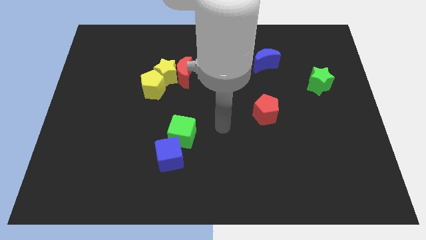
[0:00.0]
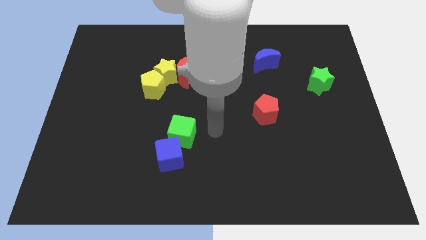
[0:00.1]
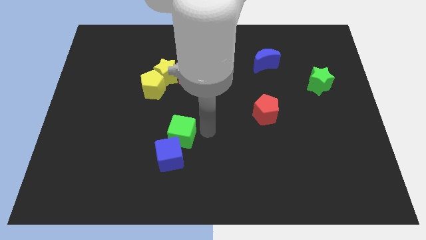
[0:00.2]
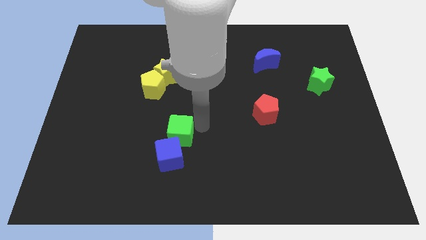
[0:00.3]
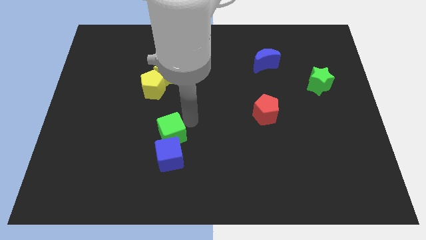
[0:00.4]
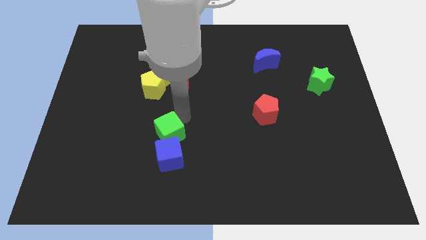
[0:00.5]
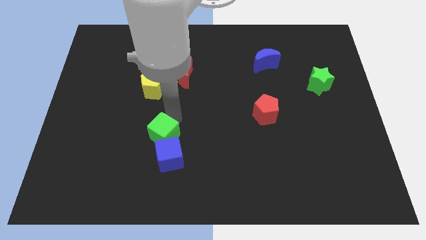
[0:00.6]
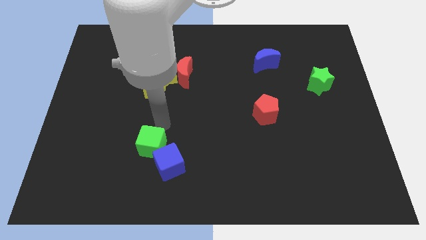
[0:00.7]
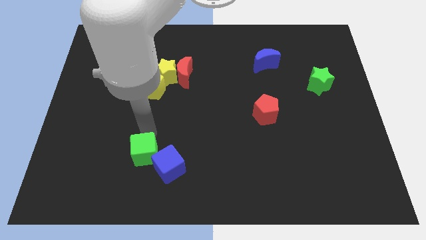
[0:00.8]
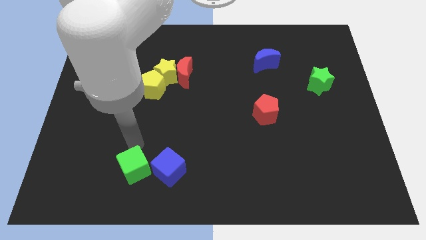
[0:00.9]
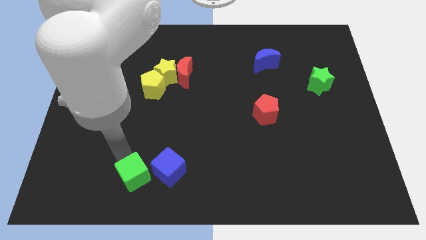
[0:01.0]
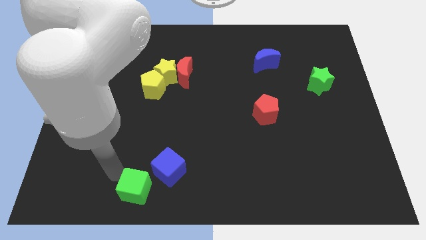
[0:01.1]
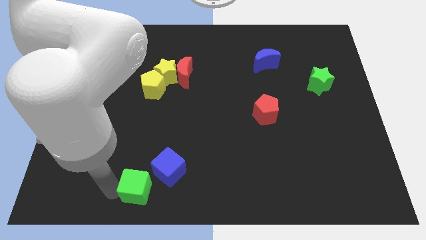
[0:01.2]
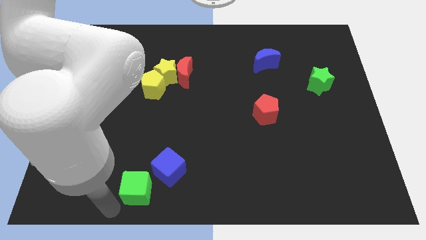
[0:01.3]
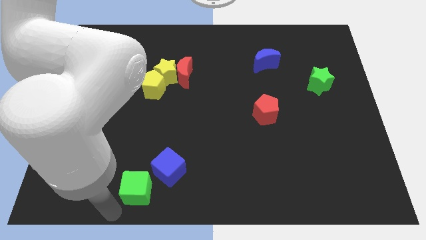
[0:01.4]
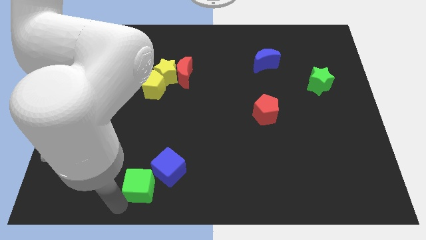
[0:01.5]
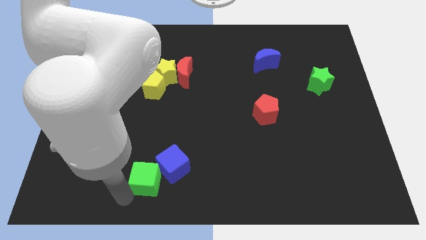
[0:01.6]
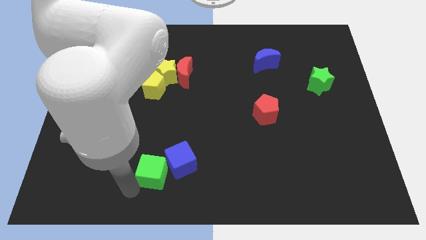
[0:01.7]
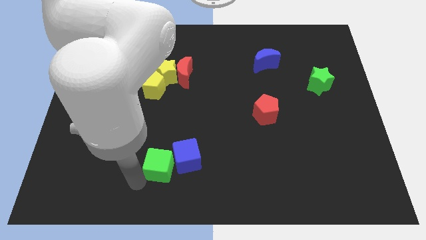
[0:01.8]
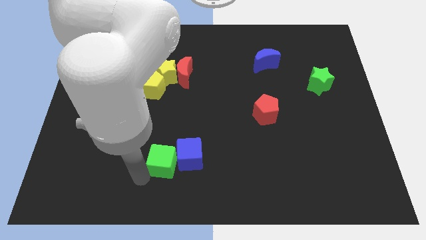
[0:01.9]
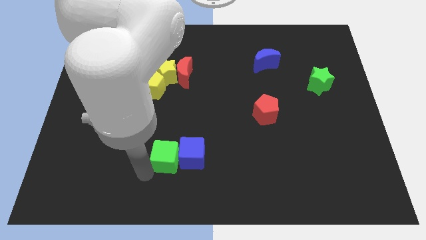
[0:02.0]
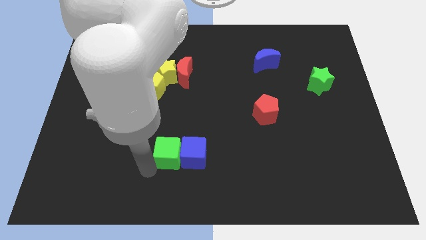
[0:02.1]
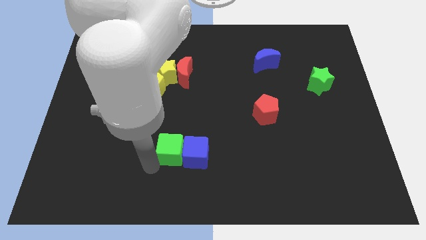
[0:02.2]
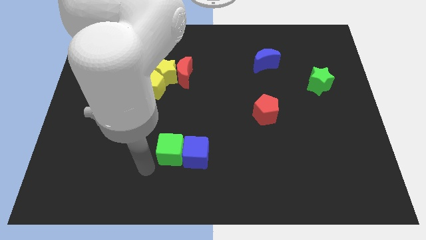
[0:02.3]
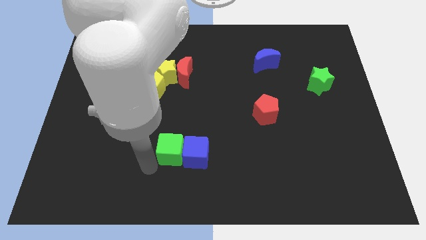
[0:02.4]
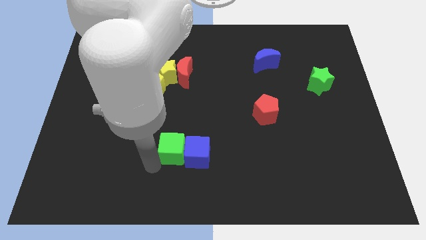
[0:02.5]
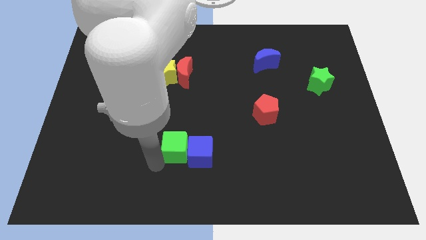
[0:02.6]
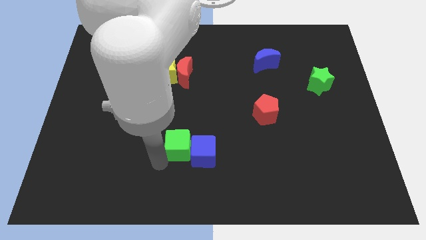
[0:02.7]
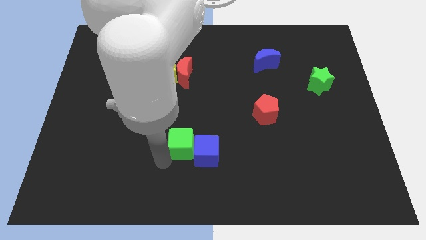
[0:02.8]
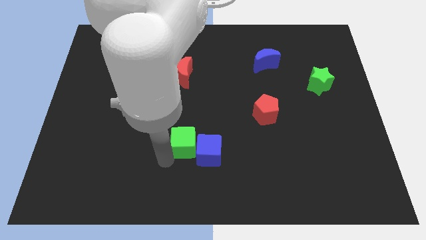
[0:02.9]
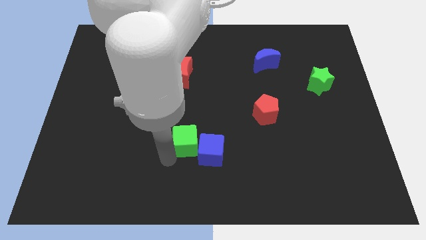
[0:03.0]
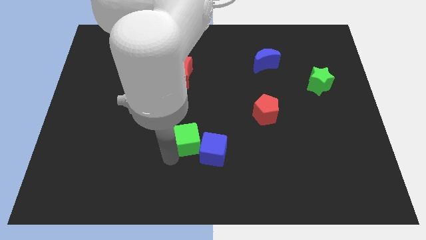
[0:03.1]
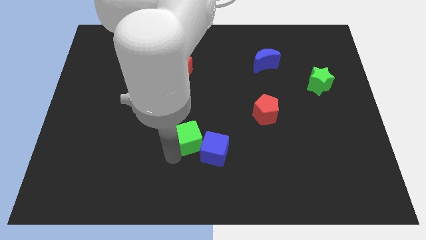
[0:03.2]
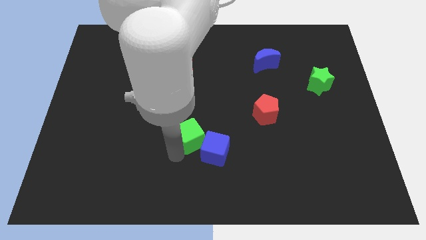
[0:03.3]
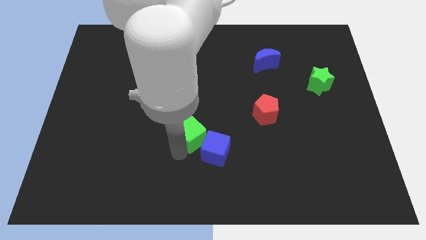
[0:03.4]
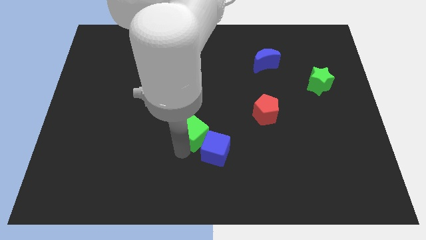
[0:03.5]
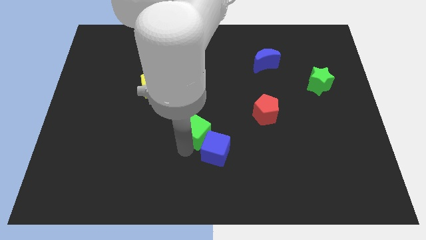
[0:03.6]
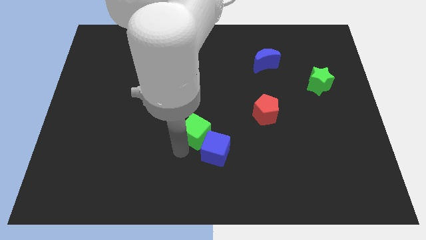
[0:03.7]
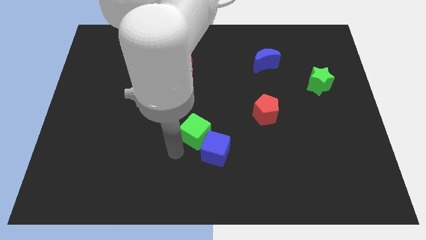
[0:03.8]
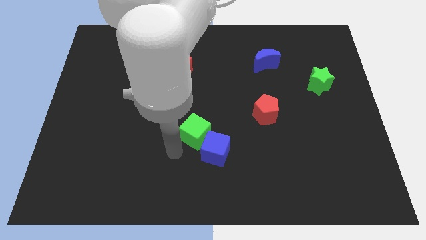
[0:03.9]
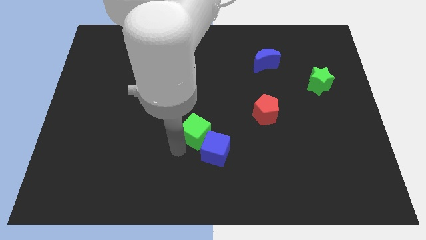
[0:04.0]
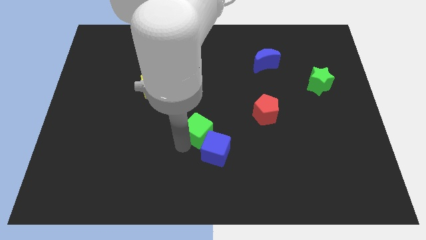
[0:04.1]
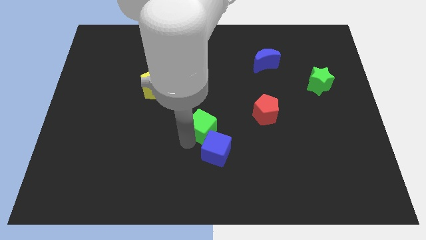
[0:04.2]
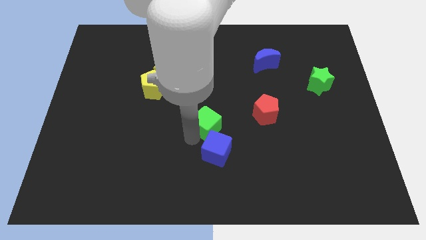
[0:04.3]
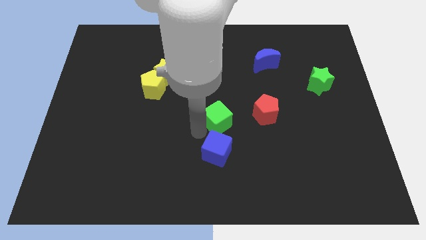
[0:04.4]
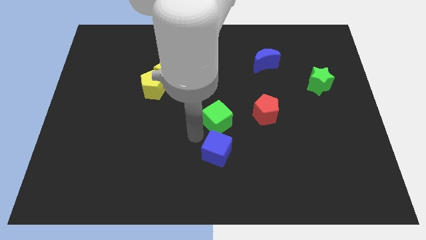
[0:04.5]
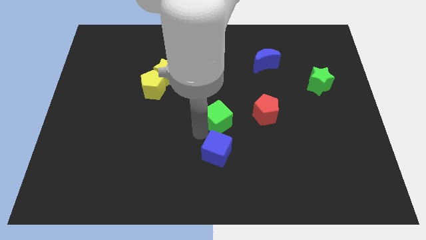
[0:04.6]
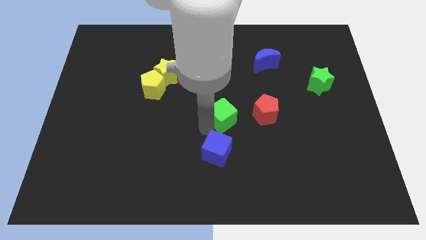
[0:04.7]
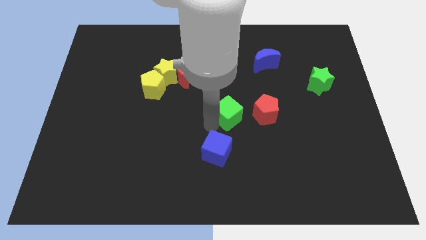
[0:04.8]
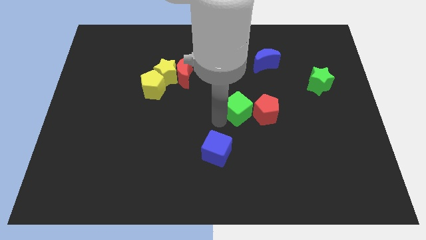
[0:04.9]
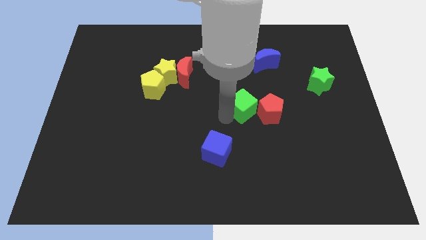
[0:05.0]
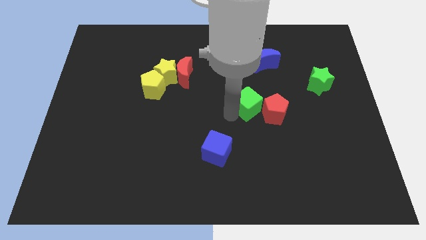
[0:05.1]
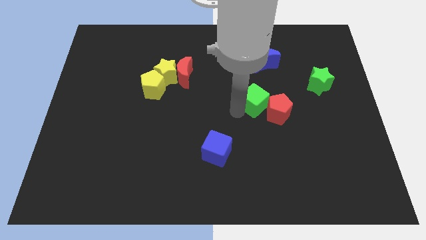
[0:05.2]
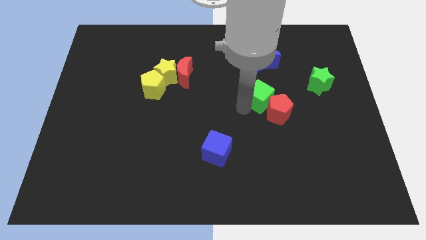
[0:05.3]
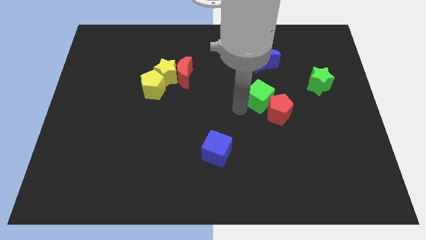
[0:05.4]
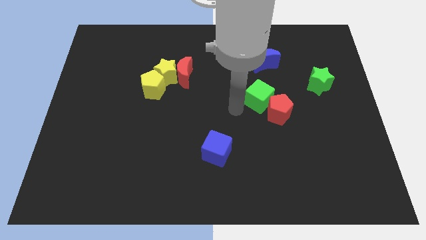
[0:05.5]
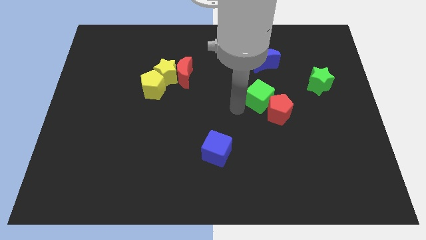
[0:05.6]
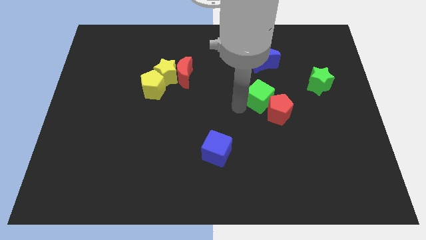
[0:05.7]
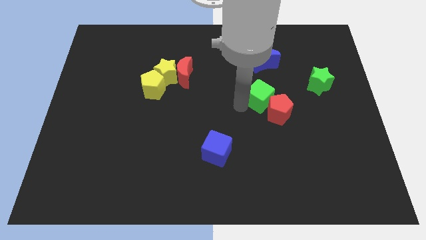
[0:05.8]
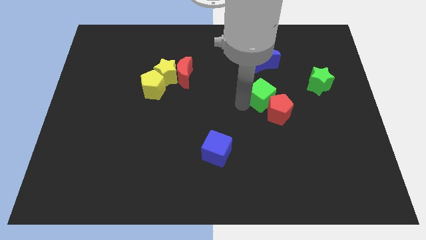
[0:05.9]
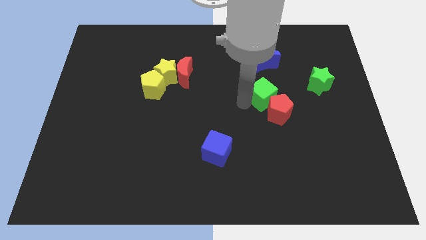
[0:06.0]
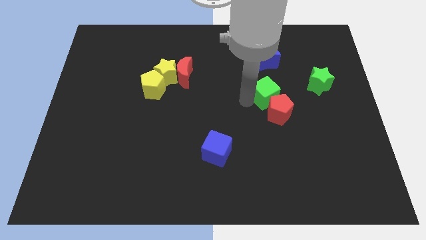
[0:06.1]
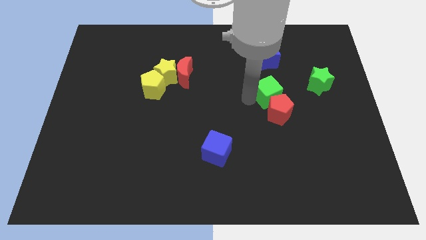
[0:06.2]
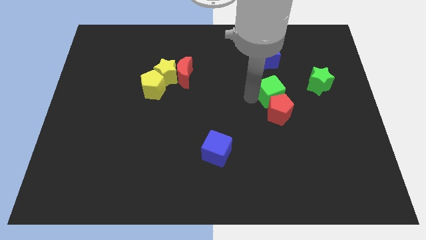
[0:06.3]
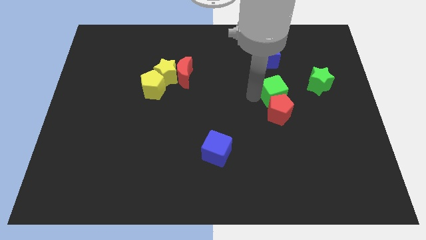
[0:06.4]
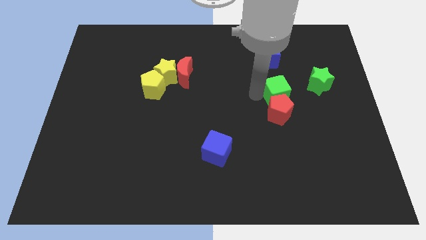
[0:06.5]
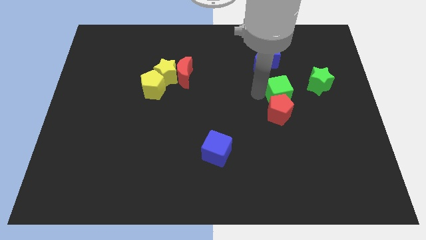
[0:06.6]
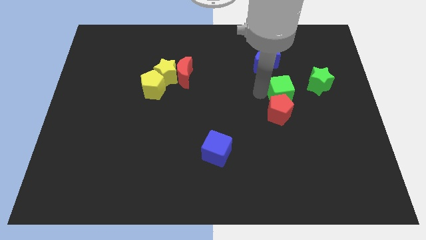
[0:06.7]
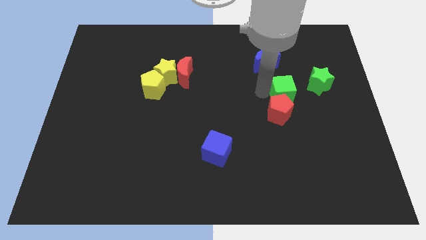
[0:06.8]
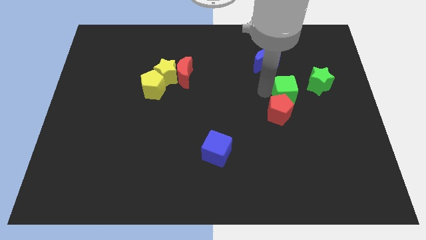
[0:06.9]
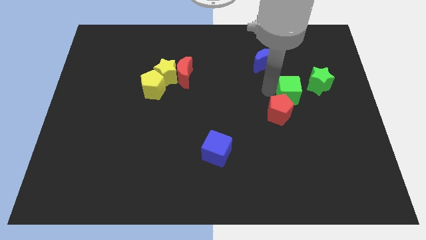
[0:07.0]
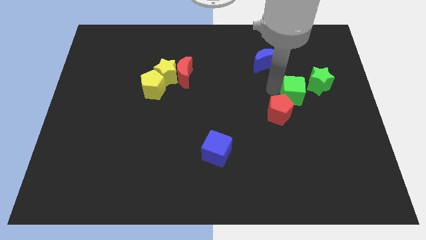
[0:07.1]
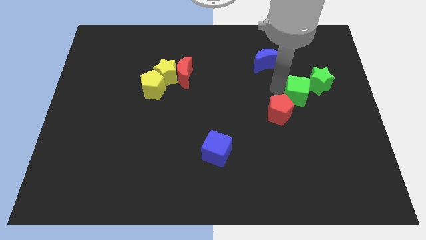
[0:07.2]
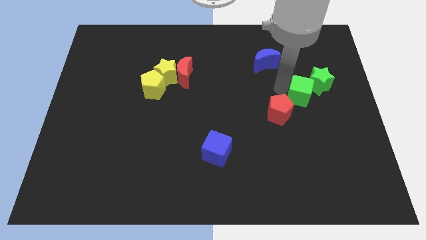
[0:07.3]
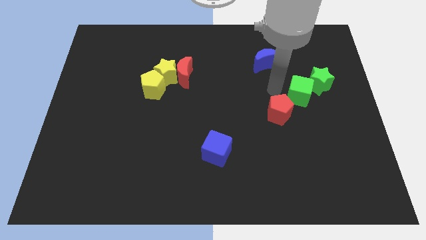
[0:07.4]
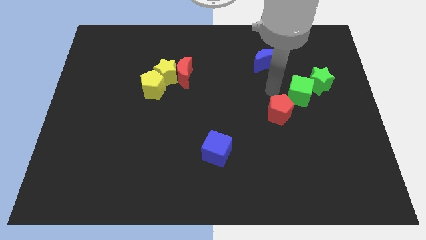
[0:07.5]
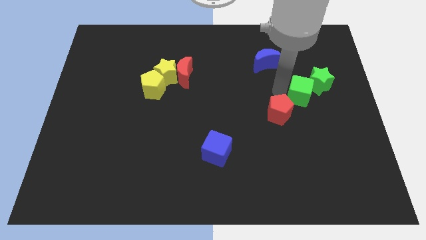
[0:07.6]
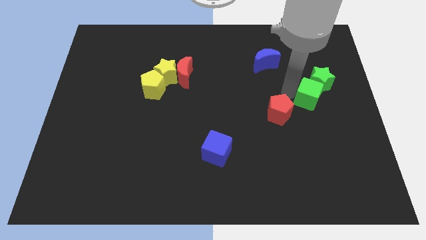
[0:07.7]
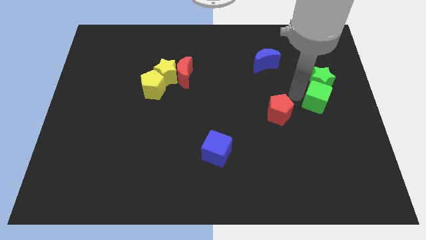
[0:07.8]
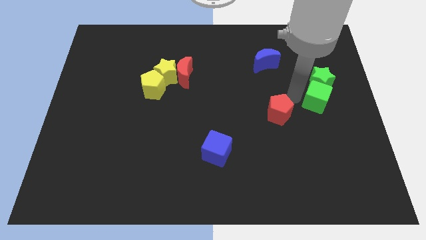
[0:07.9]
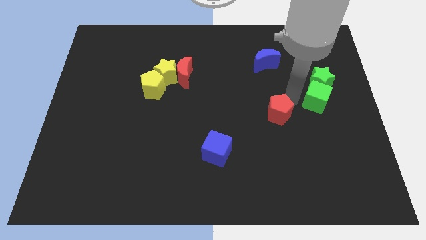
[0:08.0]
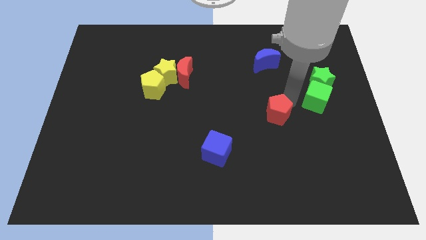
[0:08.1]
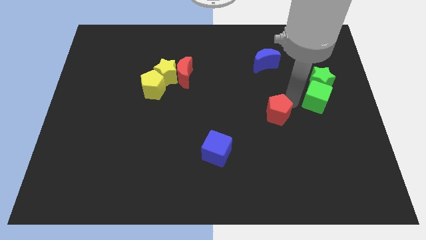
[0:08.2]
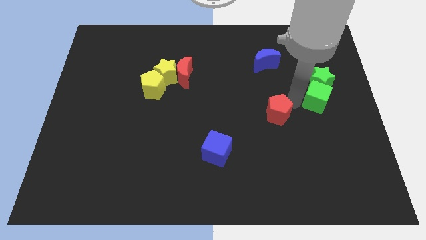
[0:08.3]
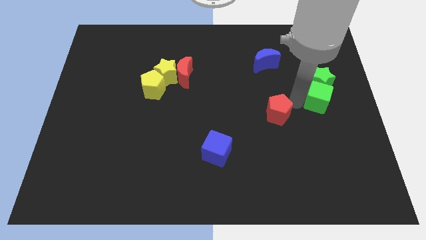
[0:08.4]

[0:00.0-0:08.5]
move the green cube to the center right
